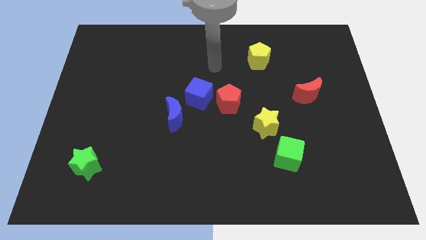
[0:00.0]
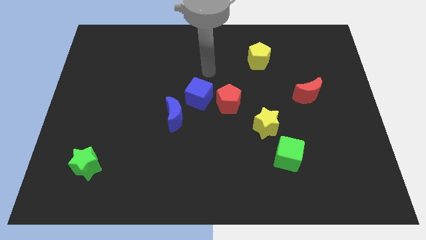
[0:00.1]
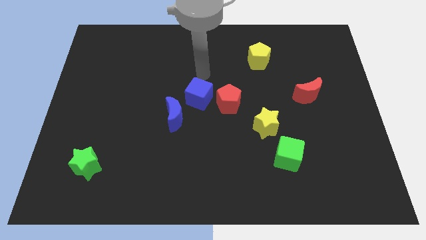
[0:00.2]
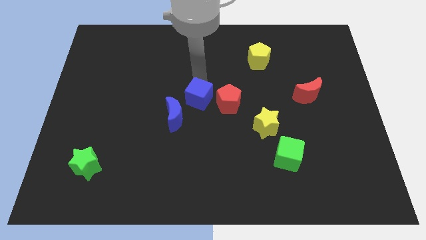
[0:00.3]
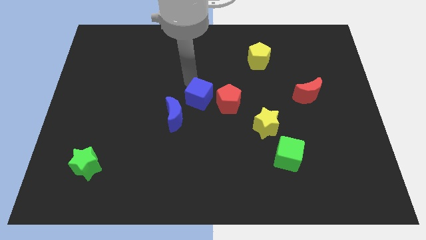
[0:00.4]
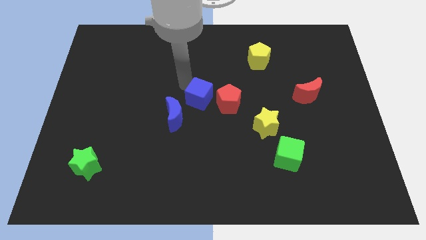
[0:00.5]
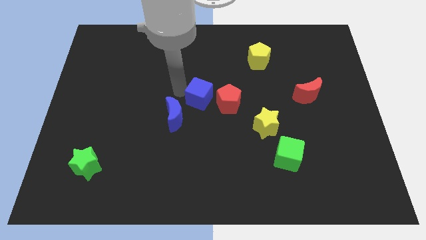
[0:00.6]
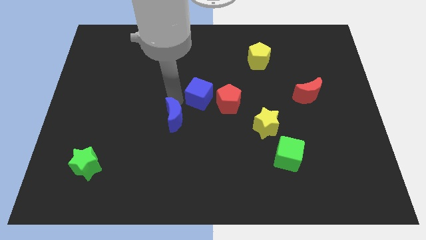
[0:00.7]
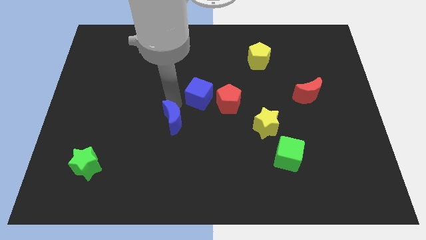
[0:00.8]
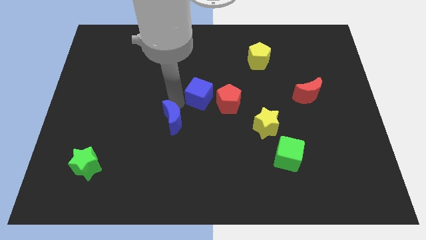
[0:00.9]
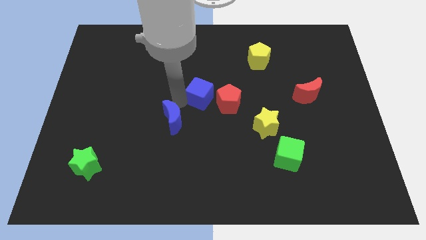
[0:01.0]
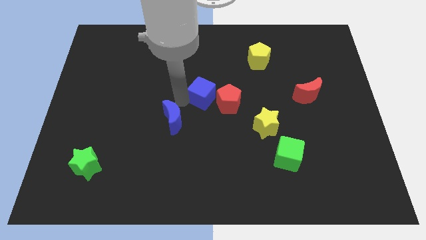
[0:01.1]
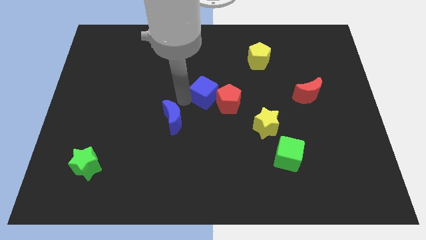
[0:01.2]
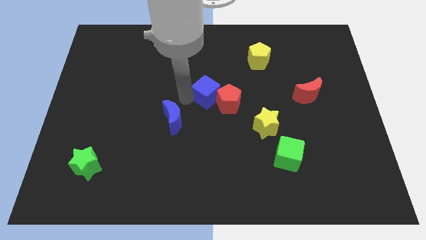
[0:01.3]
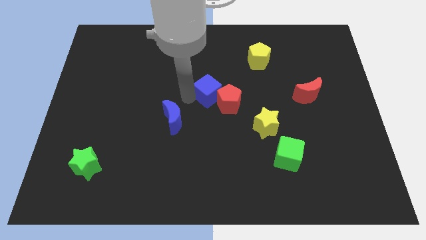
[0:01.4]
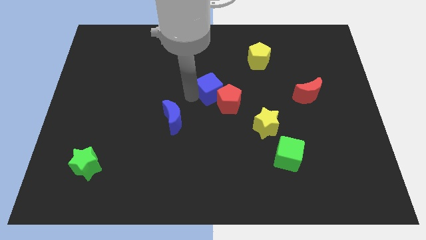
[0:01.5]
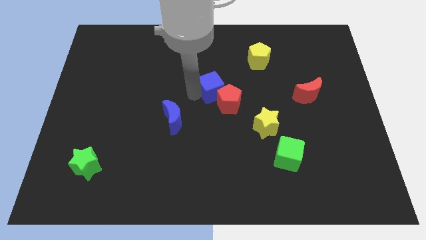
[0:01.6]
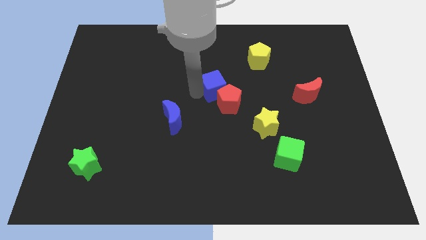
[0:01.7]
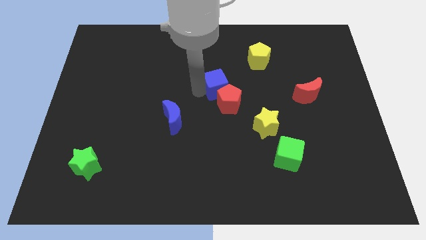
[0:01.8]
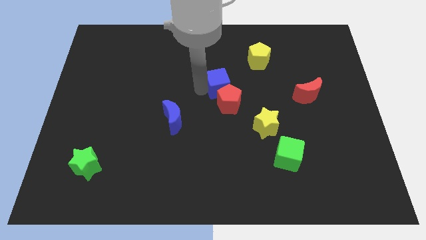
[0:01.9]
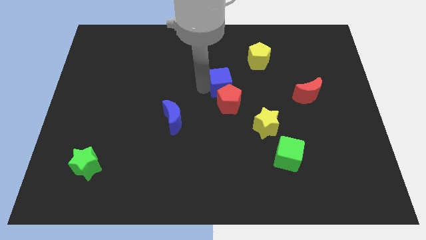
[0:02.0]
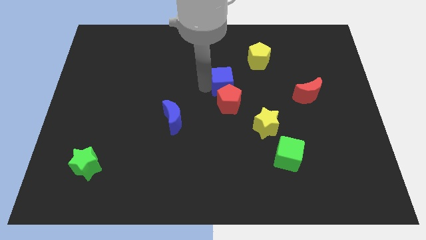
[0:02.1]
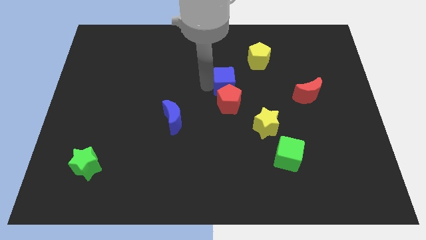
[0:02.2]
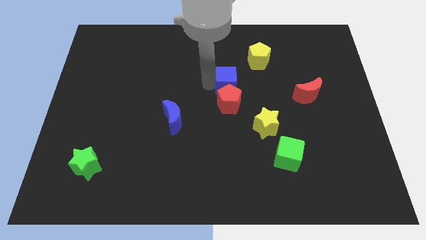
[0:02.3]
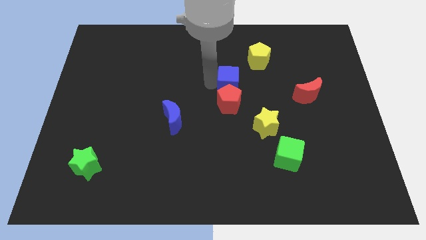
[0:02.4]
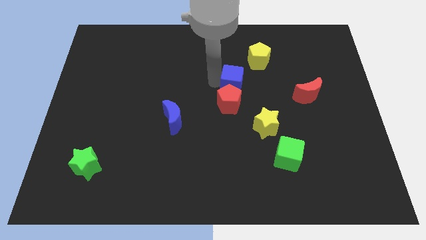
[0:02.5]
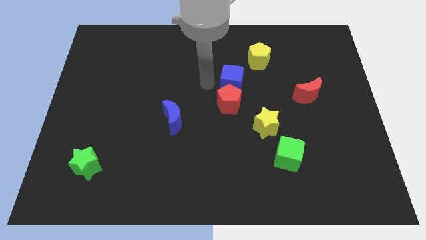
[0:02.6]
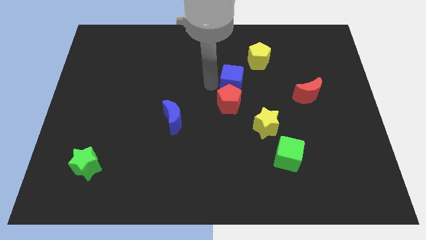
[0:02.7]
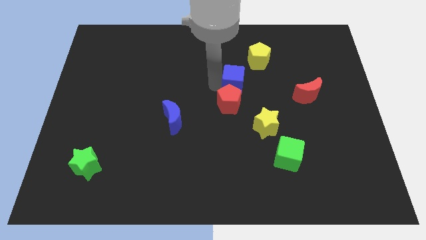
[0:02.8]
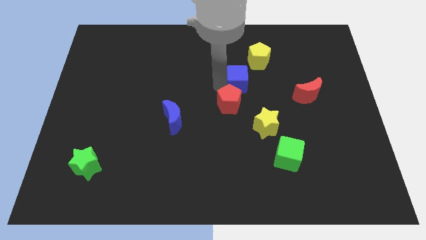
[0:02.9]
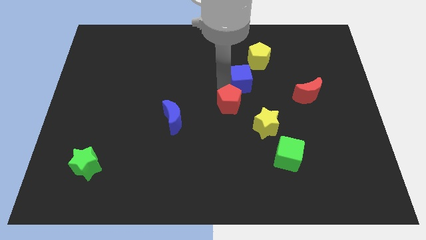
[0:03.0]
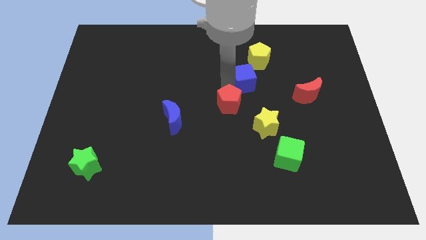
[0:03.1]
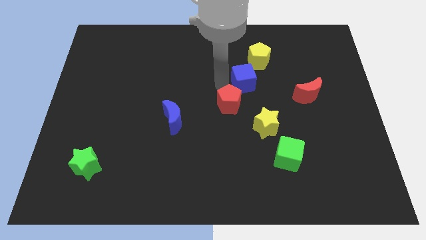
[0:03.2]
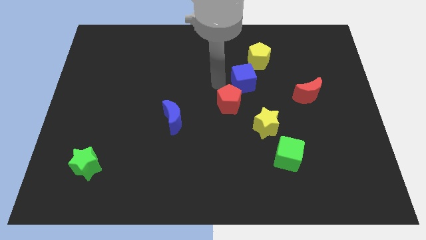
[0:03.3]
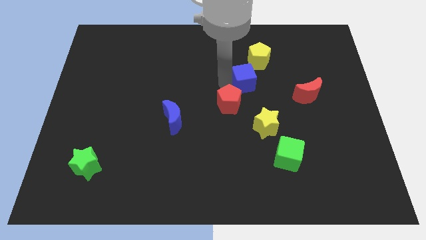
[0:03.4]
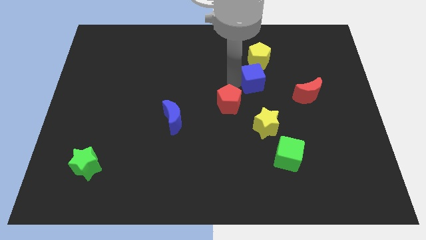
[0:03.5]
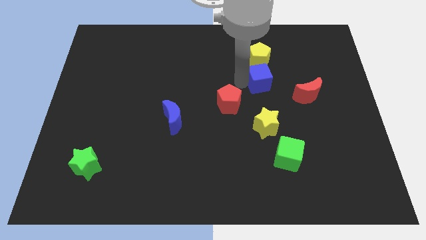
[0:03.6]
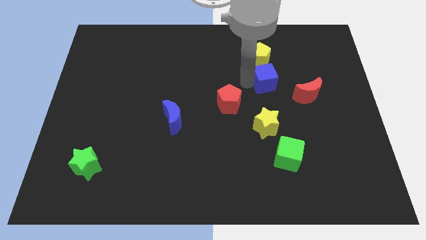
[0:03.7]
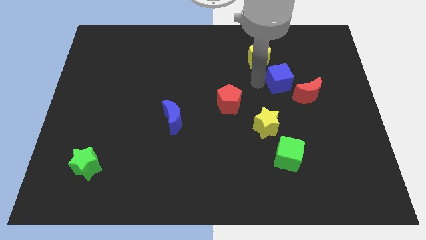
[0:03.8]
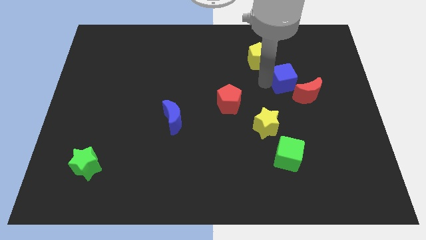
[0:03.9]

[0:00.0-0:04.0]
push the blue cube to the right

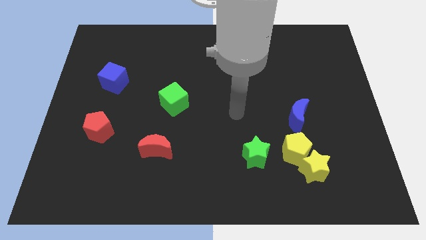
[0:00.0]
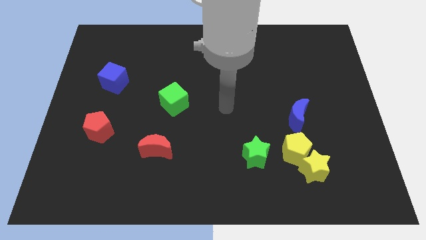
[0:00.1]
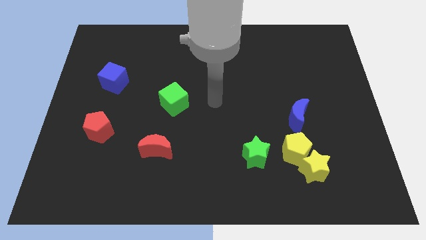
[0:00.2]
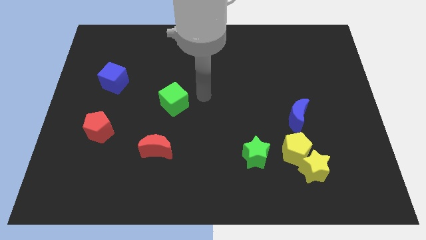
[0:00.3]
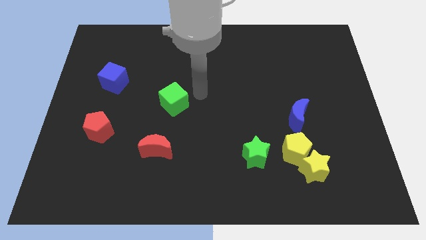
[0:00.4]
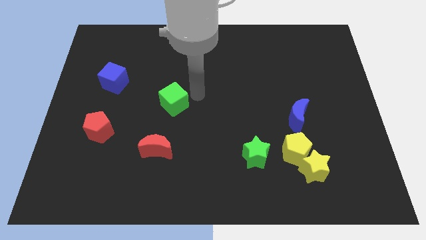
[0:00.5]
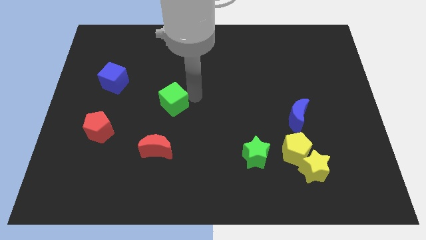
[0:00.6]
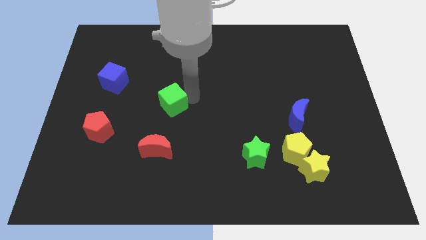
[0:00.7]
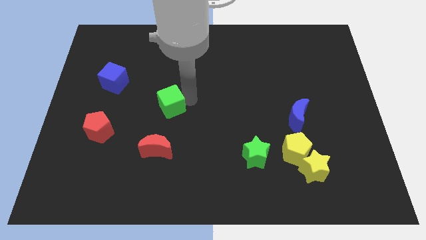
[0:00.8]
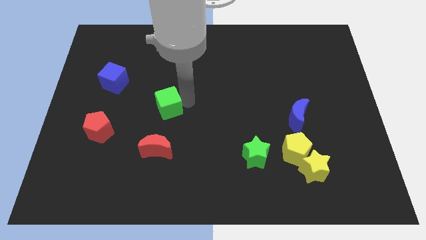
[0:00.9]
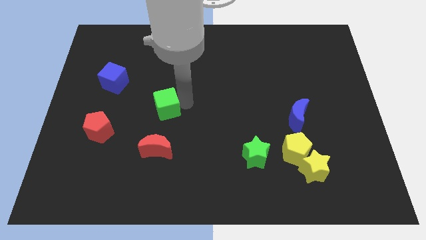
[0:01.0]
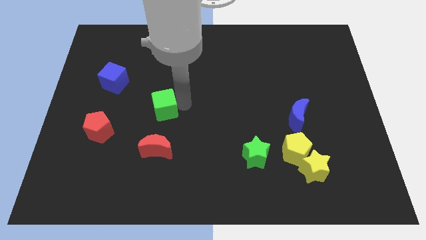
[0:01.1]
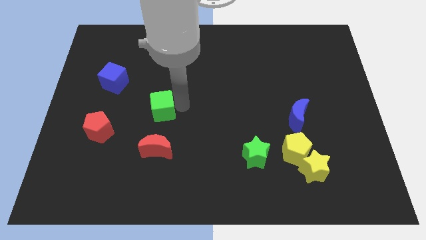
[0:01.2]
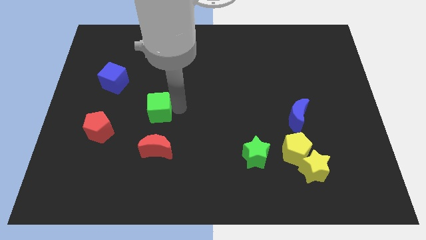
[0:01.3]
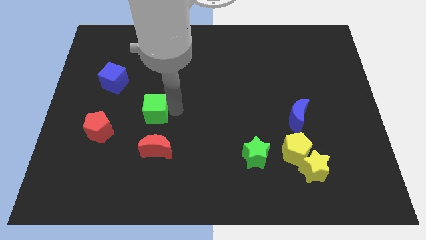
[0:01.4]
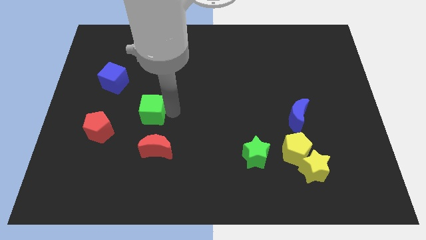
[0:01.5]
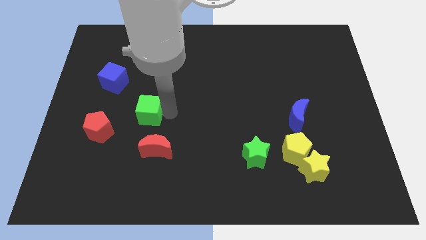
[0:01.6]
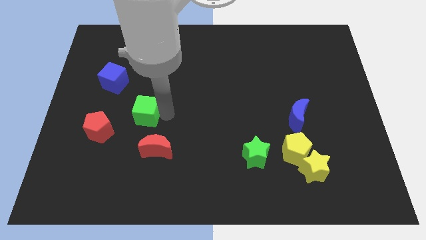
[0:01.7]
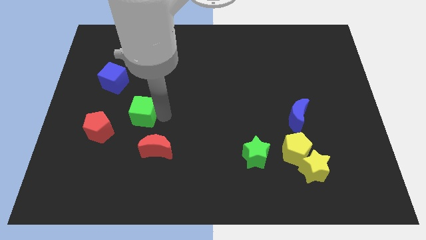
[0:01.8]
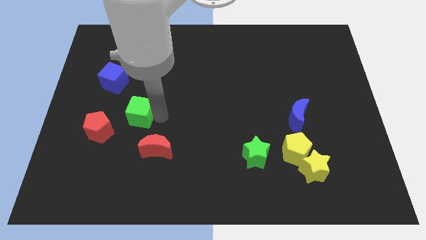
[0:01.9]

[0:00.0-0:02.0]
move the green cube left a bit

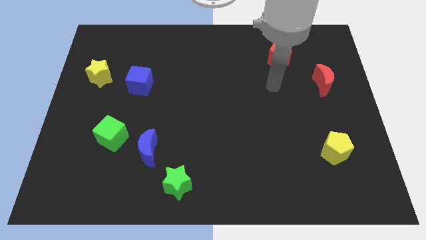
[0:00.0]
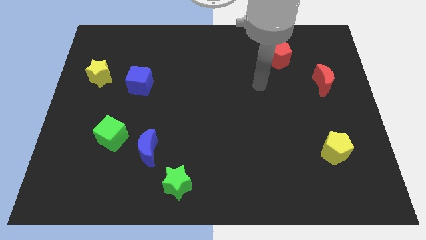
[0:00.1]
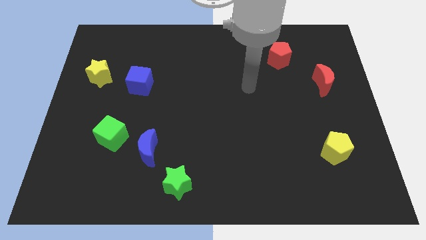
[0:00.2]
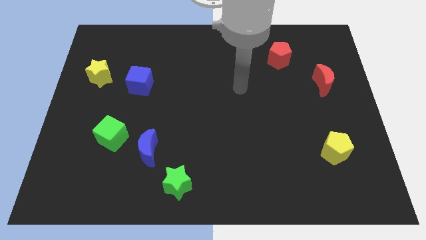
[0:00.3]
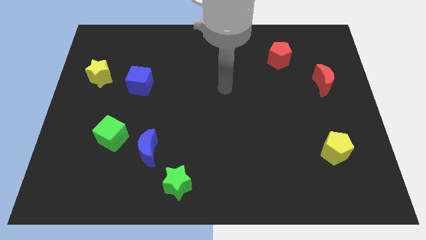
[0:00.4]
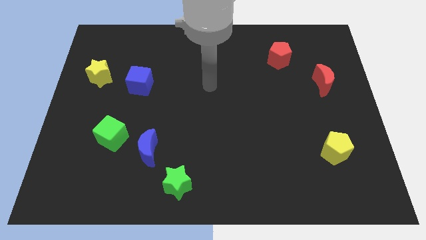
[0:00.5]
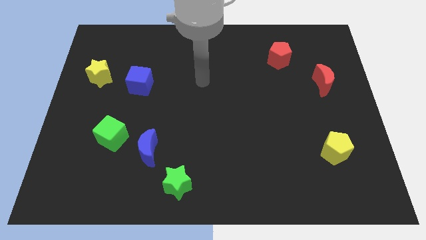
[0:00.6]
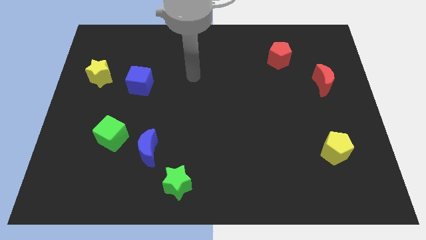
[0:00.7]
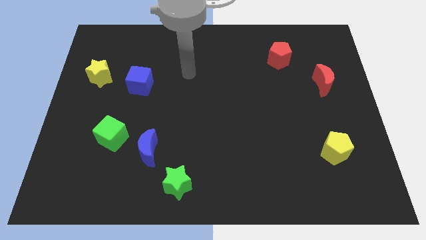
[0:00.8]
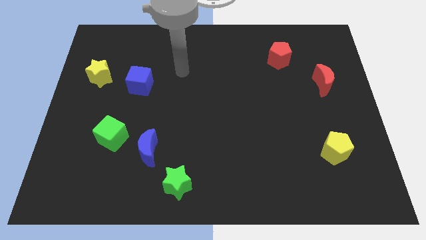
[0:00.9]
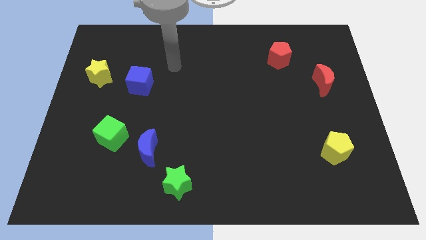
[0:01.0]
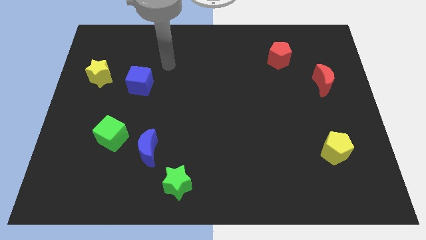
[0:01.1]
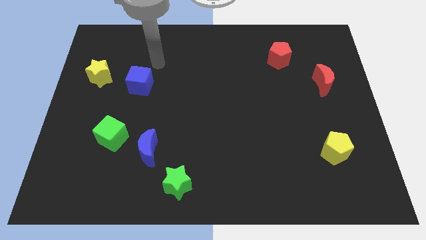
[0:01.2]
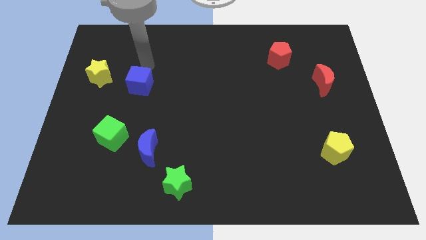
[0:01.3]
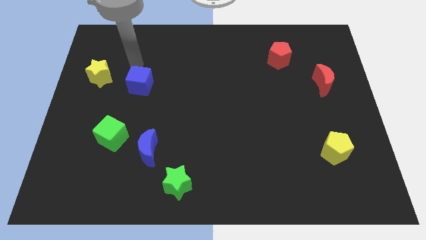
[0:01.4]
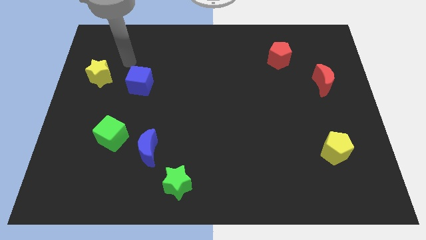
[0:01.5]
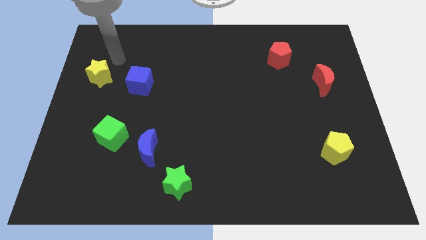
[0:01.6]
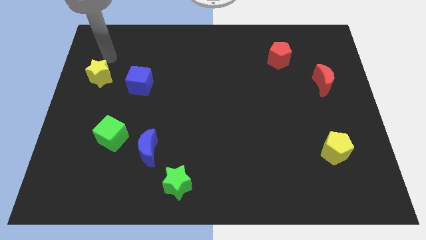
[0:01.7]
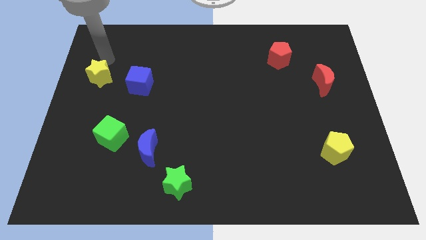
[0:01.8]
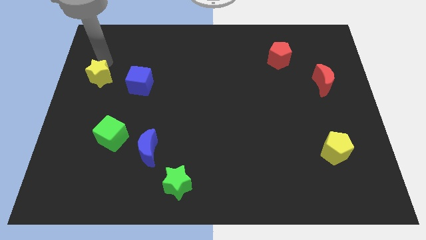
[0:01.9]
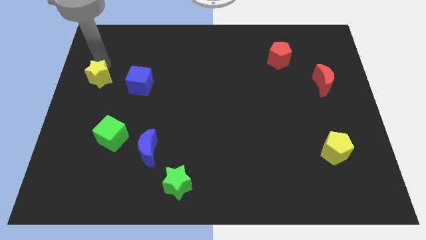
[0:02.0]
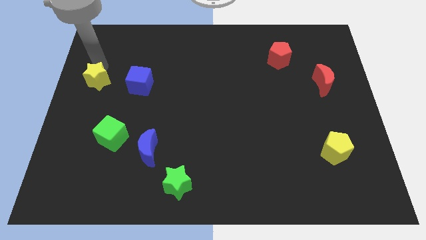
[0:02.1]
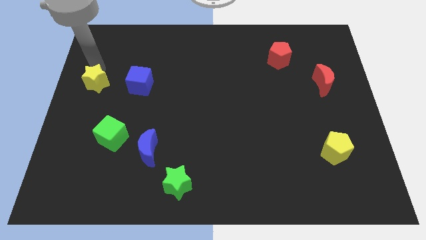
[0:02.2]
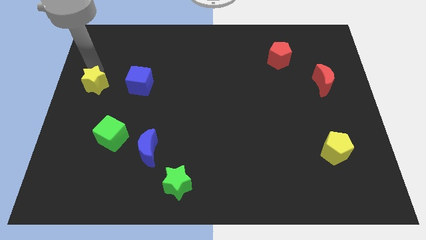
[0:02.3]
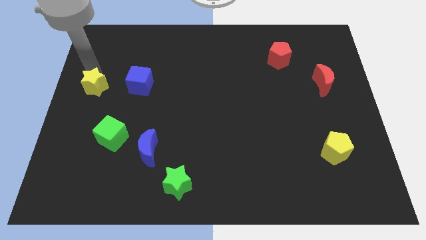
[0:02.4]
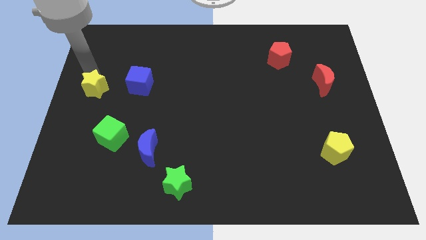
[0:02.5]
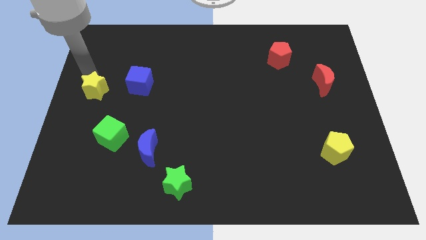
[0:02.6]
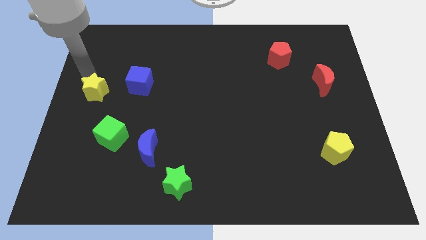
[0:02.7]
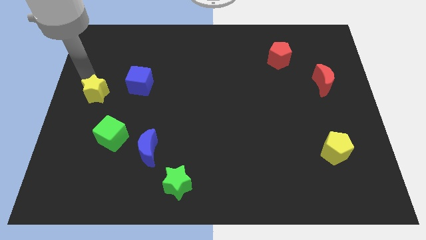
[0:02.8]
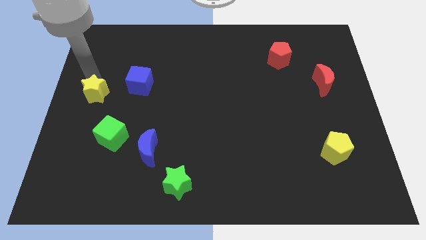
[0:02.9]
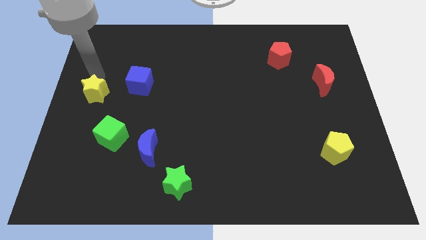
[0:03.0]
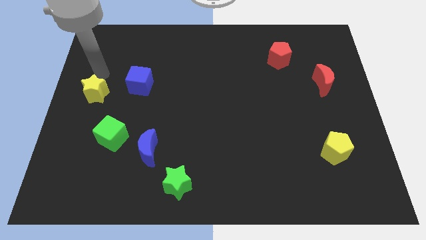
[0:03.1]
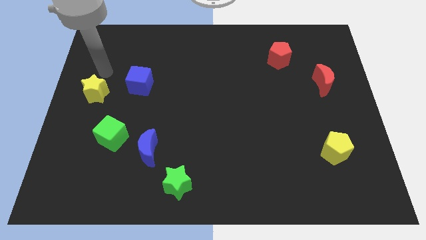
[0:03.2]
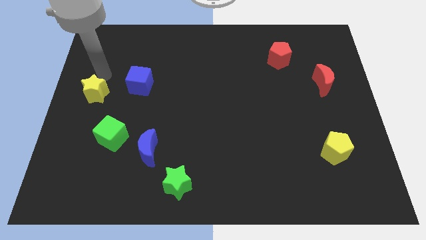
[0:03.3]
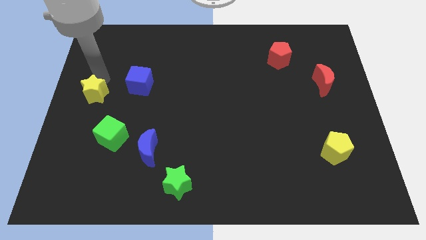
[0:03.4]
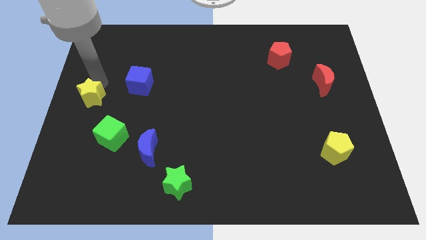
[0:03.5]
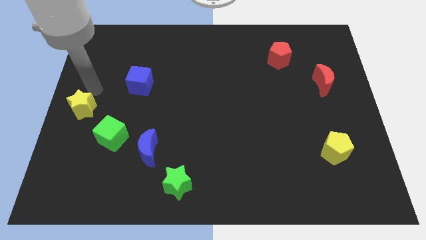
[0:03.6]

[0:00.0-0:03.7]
move the yellow star downwards somewhat
